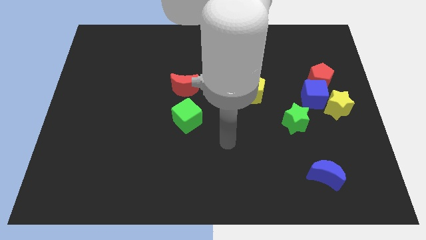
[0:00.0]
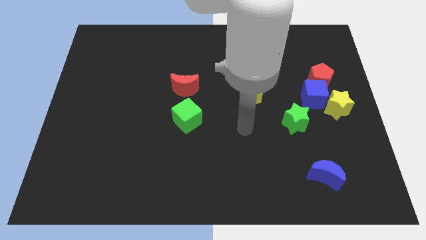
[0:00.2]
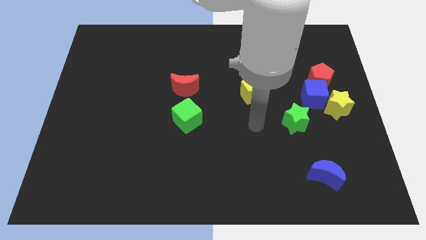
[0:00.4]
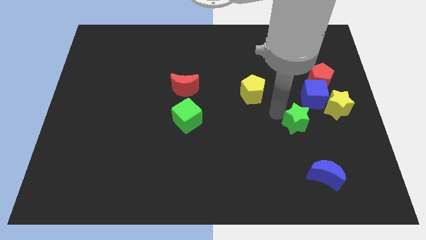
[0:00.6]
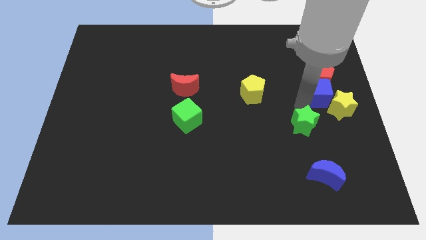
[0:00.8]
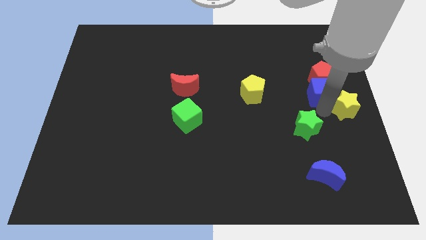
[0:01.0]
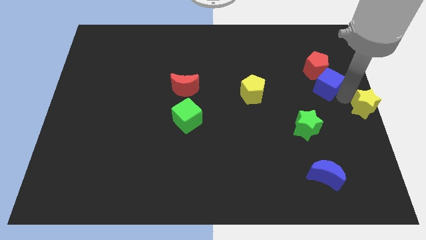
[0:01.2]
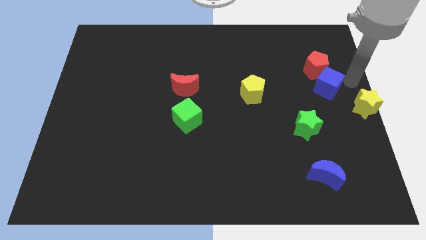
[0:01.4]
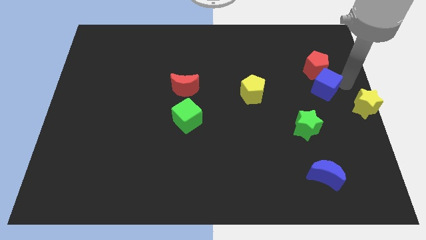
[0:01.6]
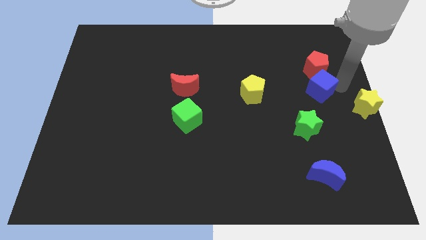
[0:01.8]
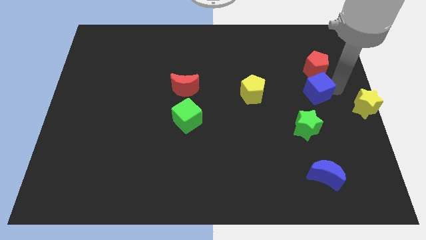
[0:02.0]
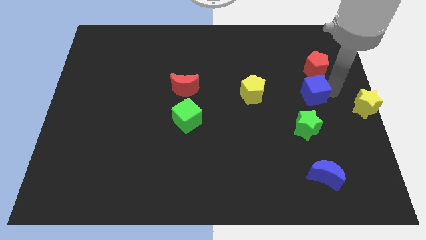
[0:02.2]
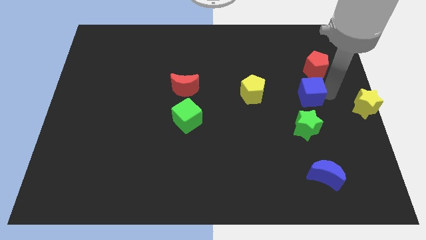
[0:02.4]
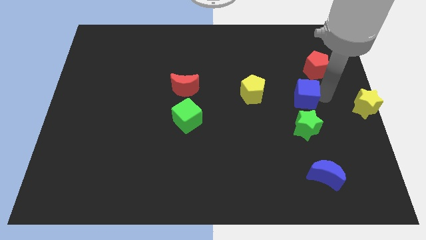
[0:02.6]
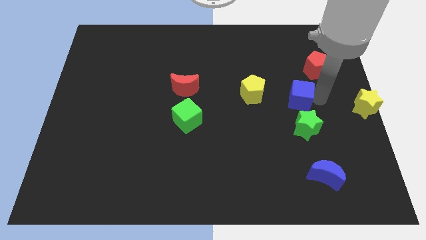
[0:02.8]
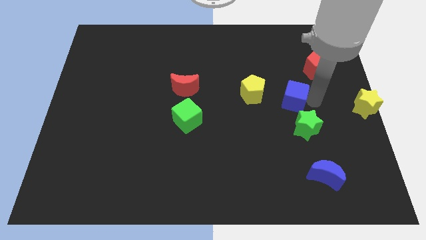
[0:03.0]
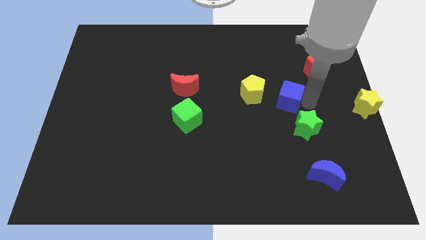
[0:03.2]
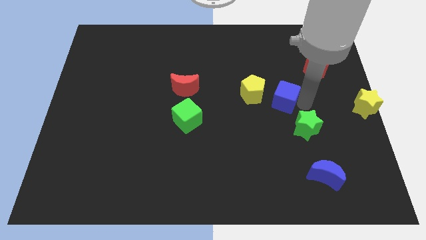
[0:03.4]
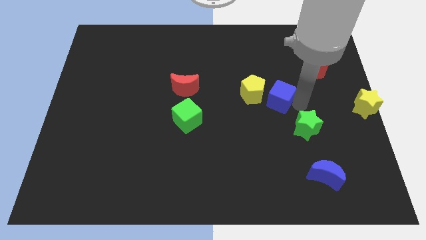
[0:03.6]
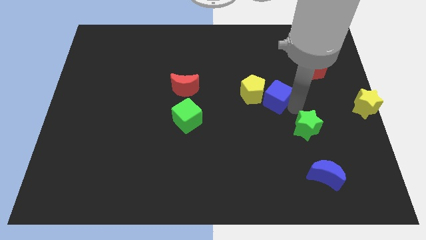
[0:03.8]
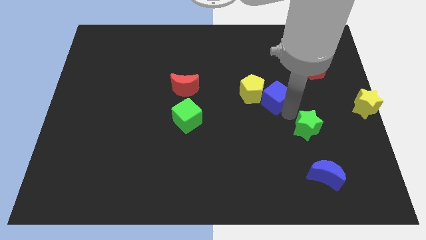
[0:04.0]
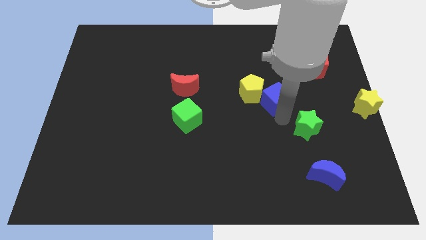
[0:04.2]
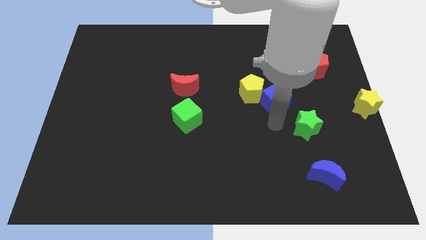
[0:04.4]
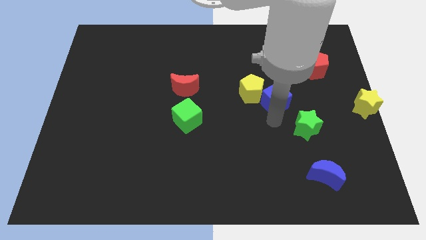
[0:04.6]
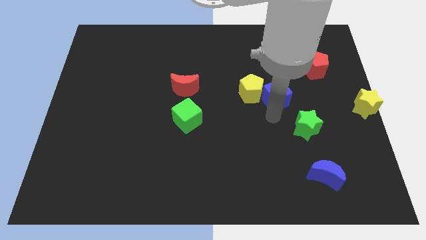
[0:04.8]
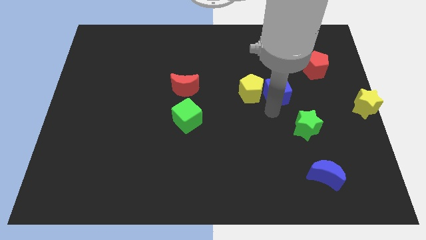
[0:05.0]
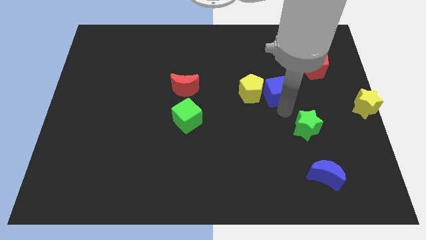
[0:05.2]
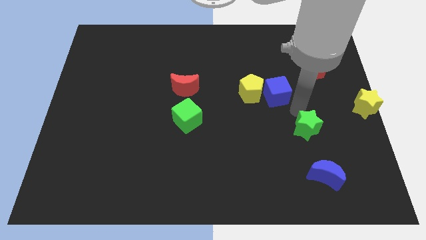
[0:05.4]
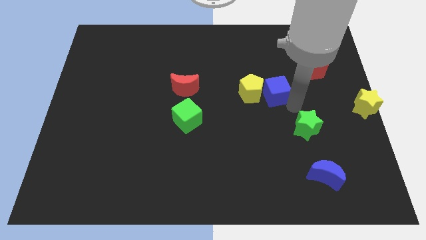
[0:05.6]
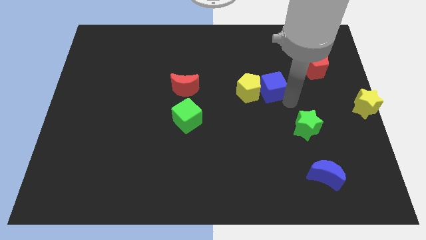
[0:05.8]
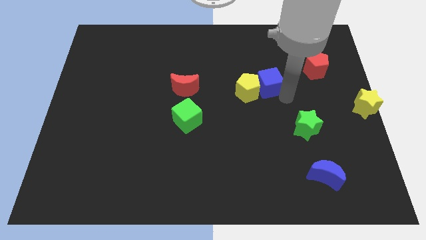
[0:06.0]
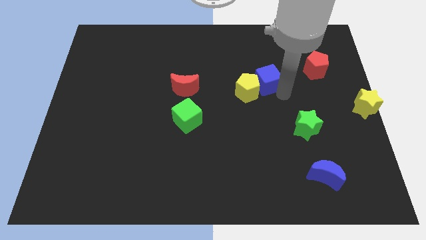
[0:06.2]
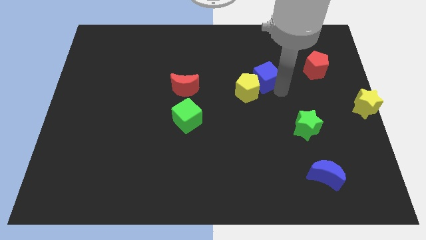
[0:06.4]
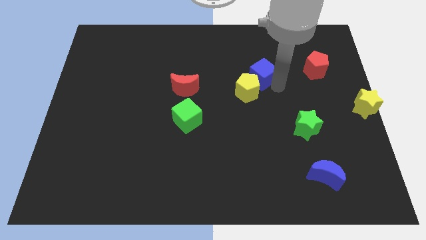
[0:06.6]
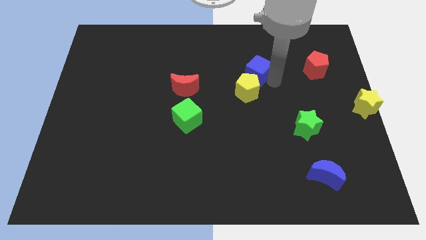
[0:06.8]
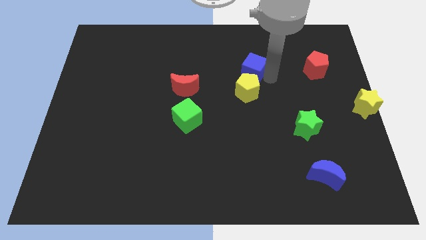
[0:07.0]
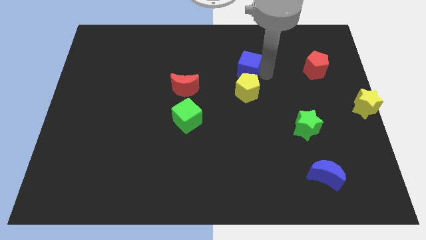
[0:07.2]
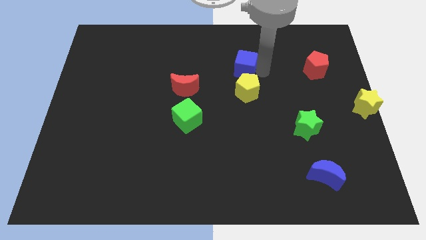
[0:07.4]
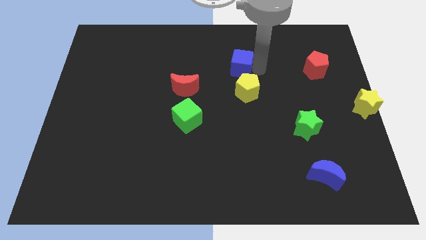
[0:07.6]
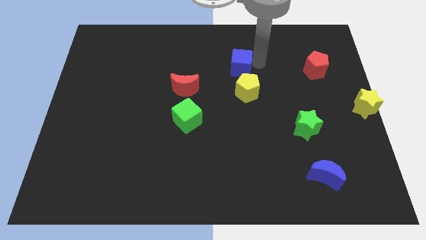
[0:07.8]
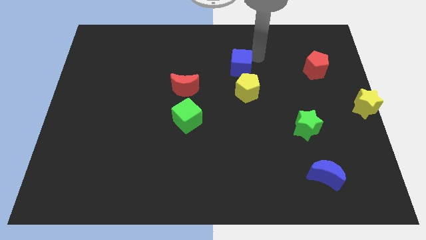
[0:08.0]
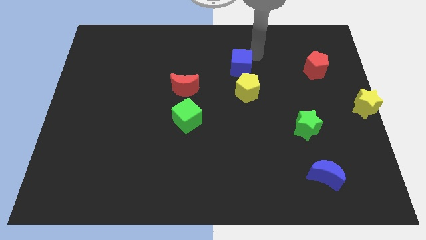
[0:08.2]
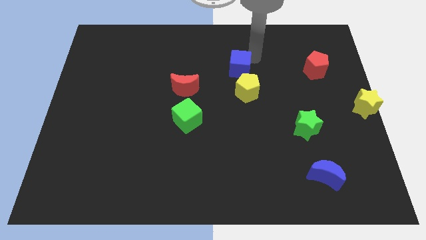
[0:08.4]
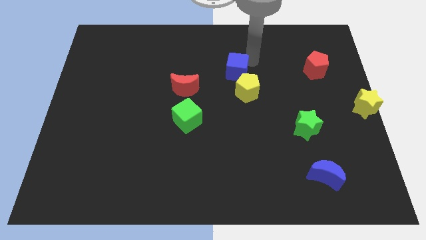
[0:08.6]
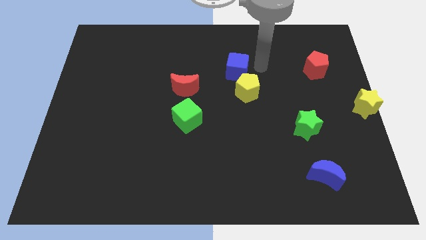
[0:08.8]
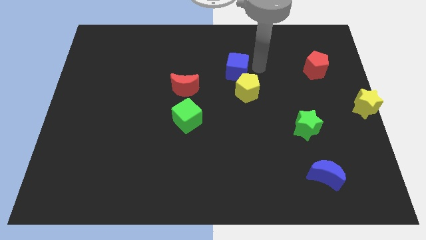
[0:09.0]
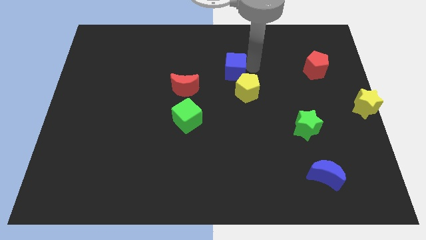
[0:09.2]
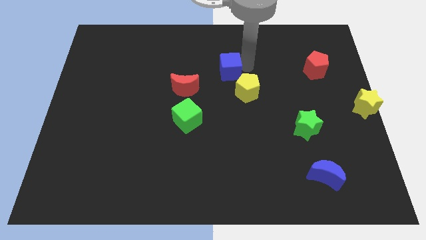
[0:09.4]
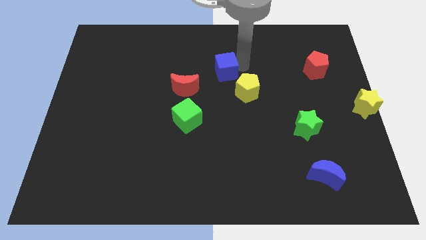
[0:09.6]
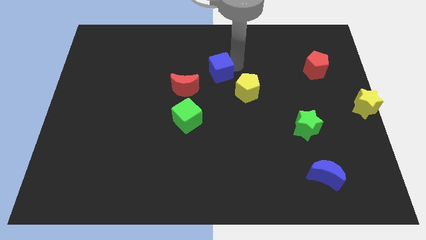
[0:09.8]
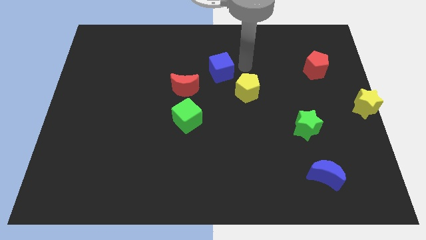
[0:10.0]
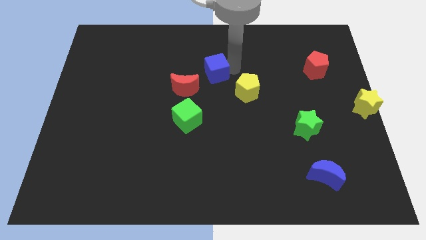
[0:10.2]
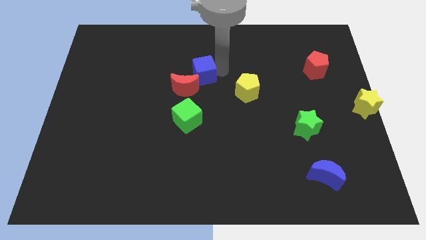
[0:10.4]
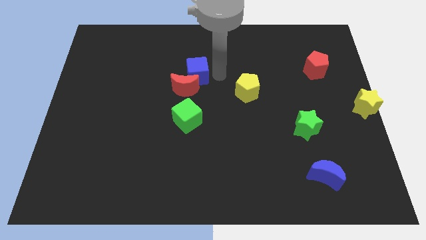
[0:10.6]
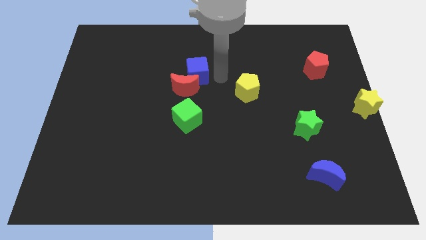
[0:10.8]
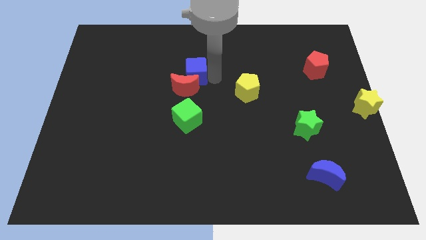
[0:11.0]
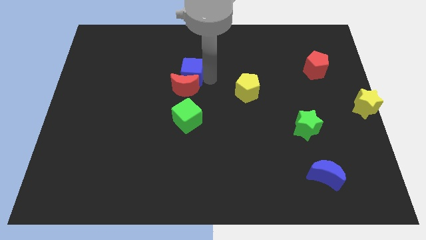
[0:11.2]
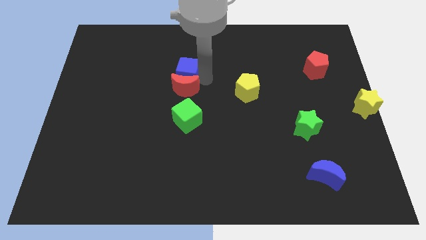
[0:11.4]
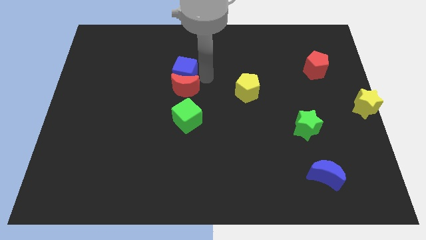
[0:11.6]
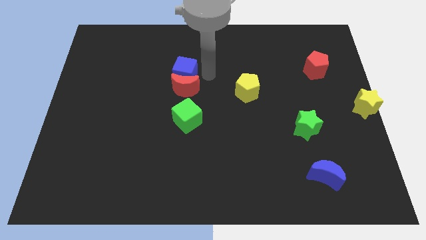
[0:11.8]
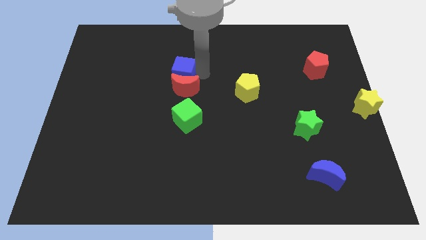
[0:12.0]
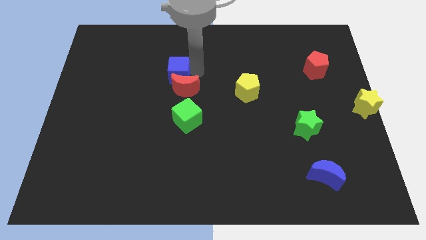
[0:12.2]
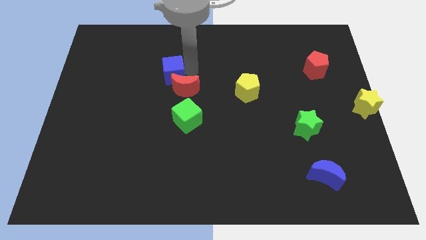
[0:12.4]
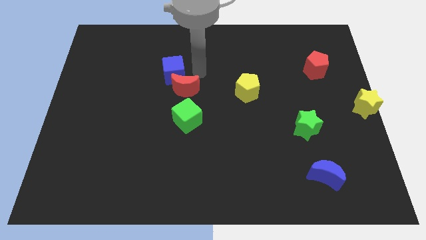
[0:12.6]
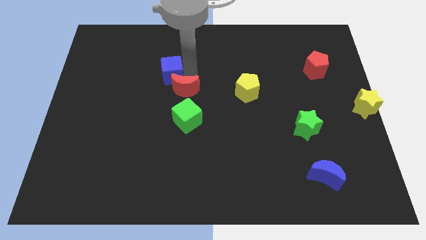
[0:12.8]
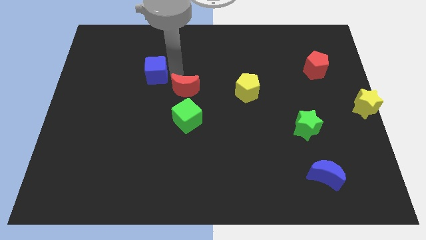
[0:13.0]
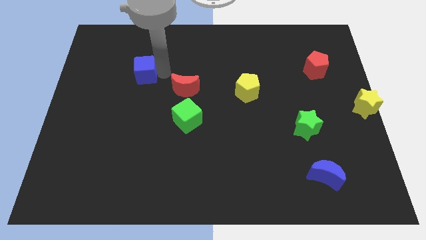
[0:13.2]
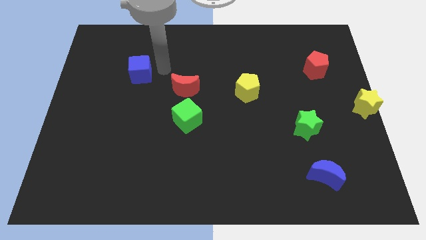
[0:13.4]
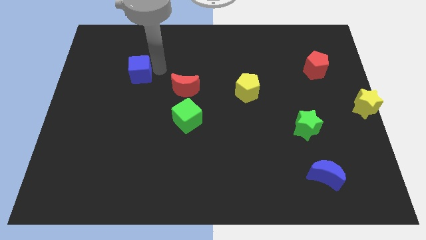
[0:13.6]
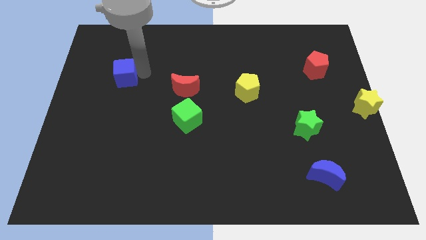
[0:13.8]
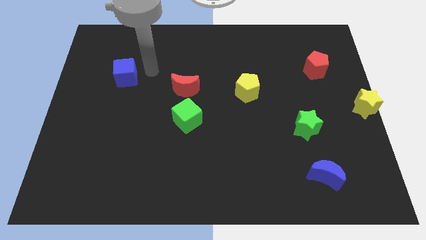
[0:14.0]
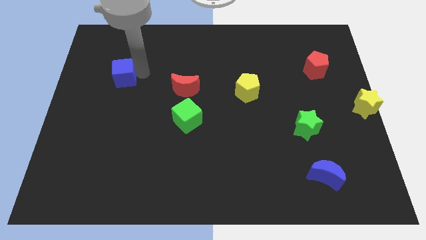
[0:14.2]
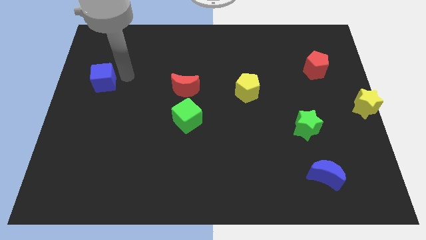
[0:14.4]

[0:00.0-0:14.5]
push the blue cube to the left side of the board

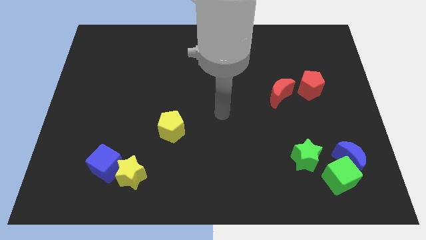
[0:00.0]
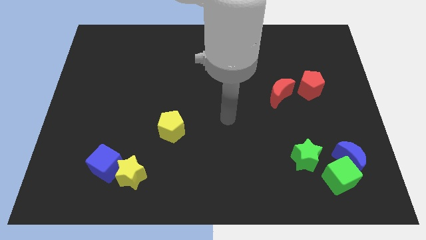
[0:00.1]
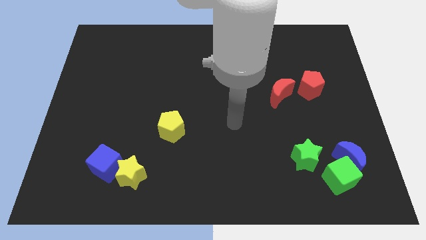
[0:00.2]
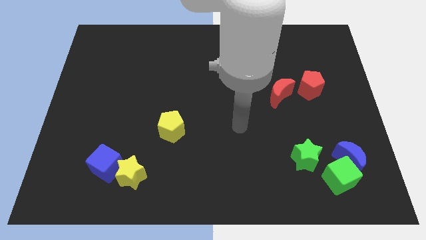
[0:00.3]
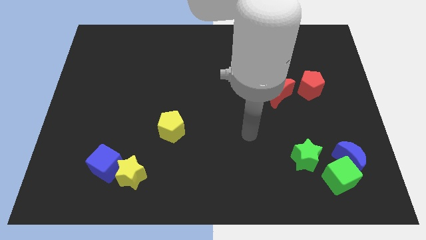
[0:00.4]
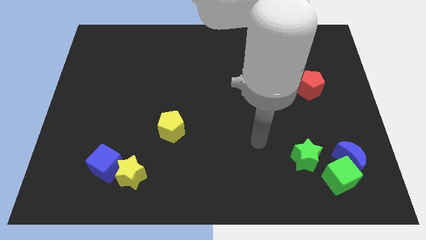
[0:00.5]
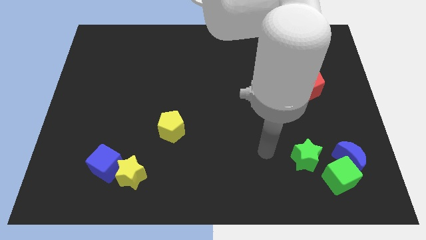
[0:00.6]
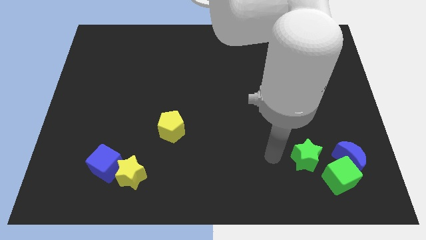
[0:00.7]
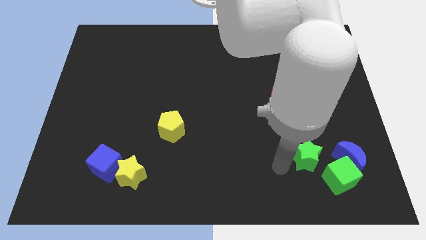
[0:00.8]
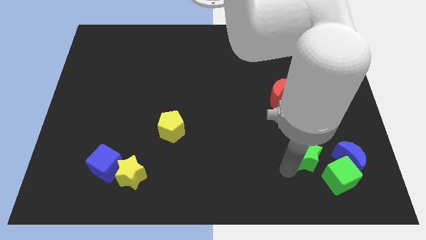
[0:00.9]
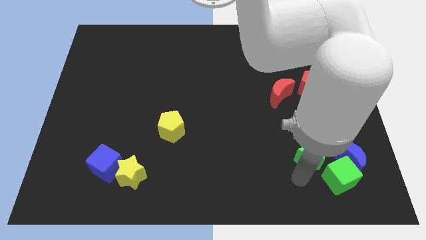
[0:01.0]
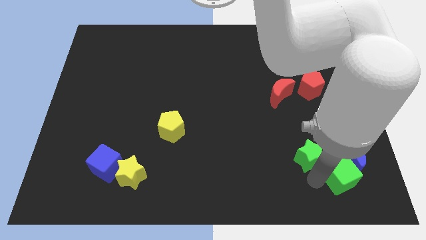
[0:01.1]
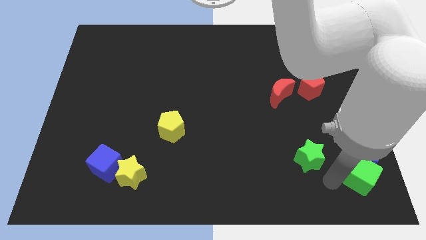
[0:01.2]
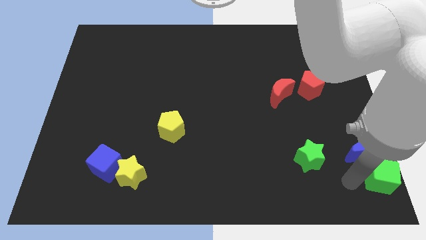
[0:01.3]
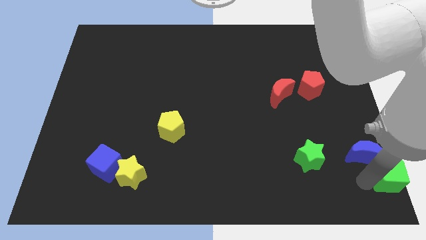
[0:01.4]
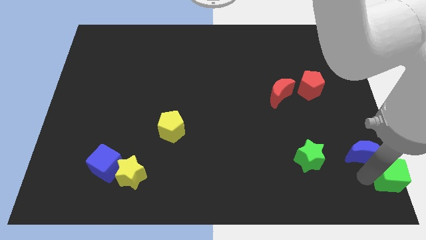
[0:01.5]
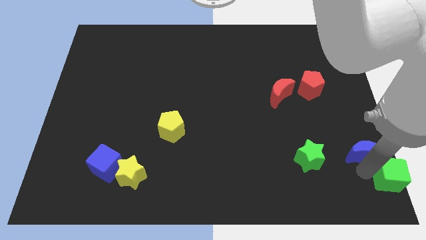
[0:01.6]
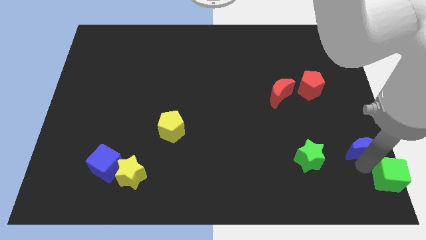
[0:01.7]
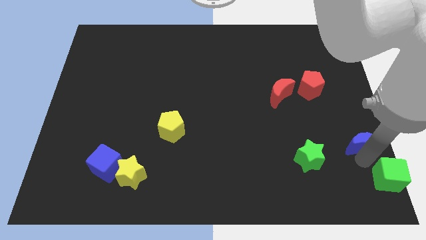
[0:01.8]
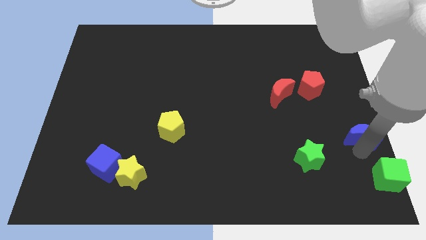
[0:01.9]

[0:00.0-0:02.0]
push the blue moon to the right side
